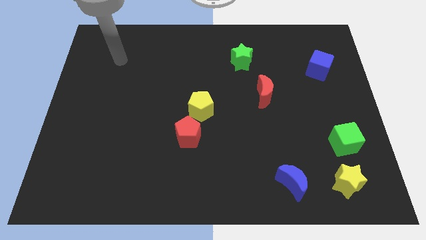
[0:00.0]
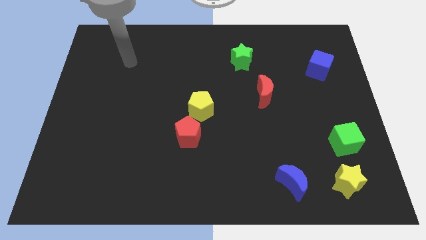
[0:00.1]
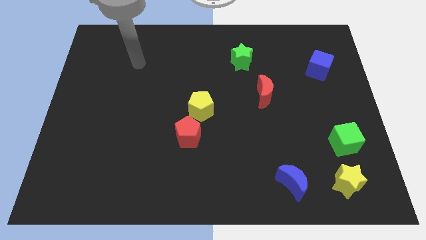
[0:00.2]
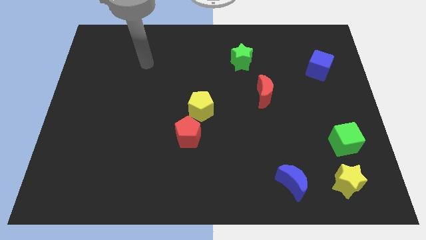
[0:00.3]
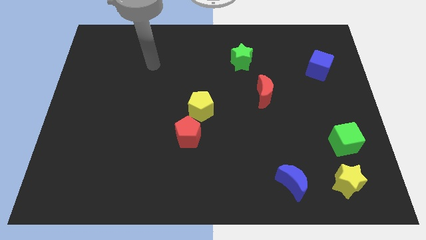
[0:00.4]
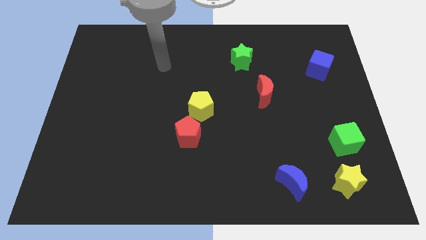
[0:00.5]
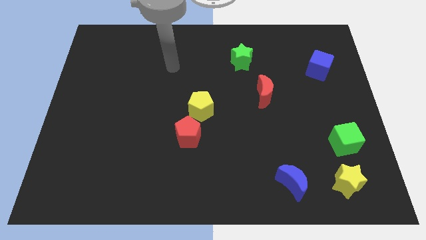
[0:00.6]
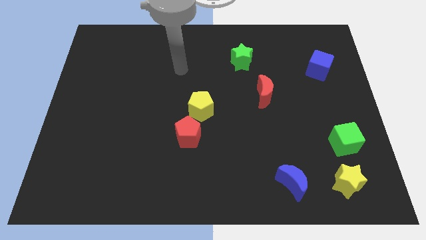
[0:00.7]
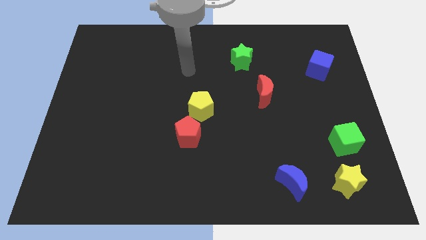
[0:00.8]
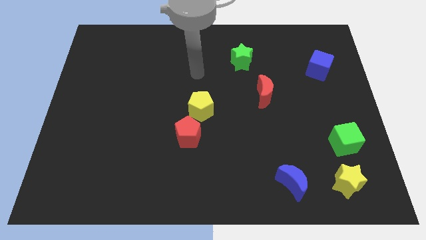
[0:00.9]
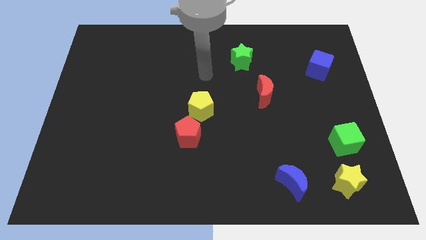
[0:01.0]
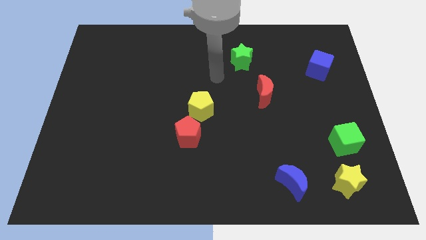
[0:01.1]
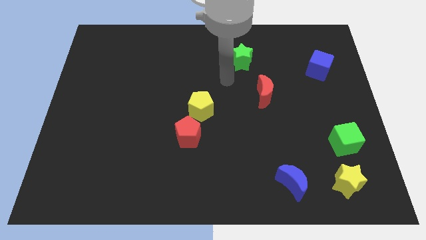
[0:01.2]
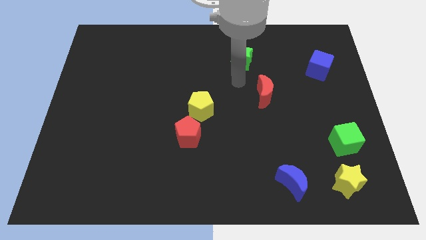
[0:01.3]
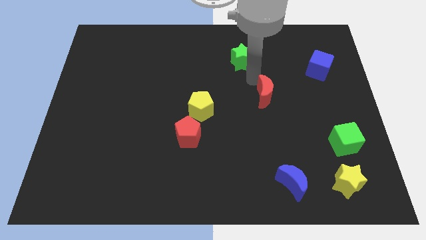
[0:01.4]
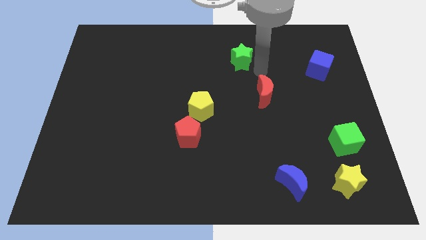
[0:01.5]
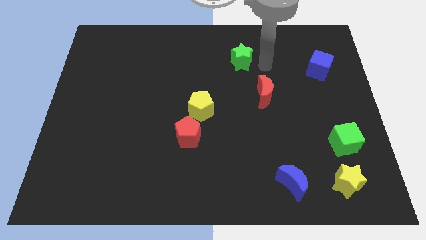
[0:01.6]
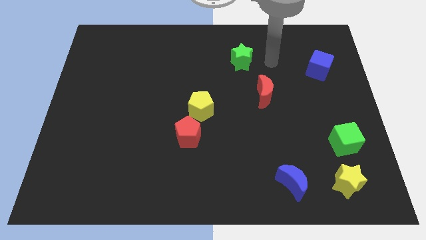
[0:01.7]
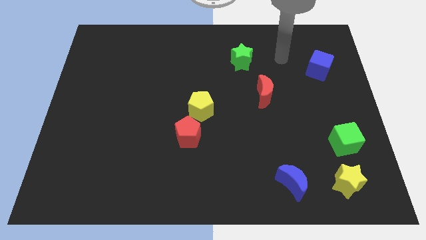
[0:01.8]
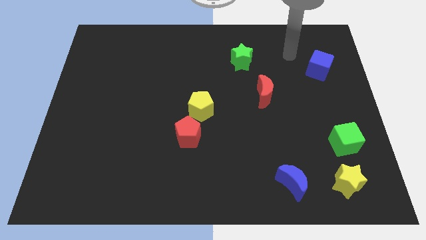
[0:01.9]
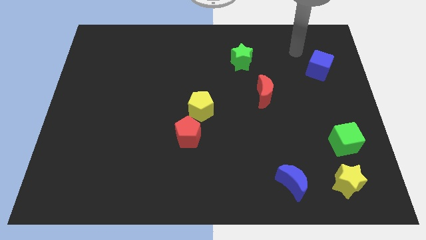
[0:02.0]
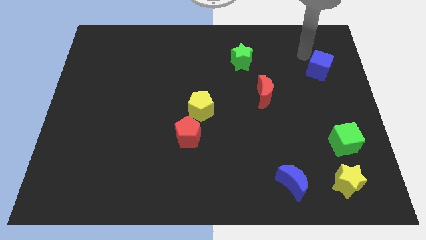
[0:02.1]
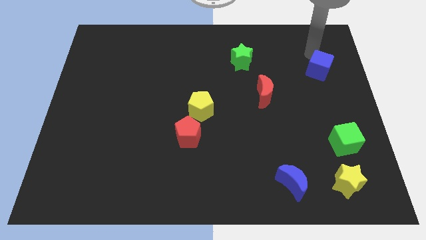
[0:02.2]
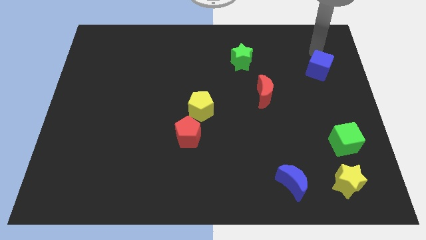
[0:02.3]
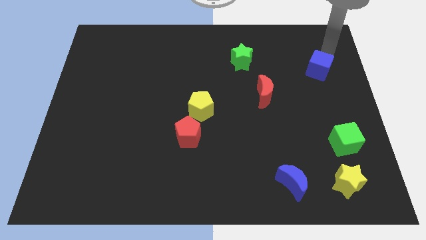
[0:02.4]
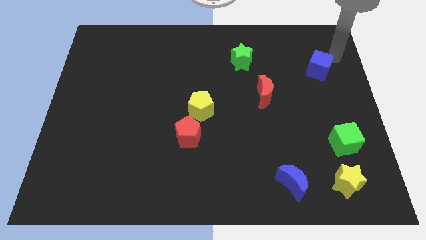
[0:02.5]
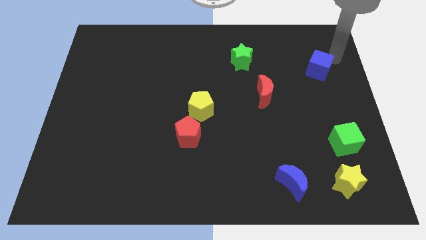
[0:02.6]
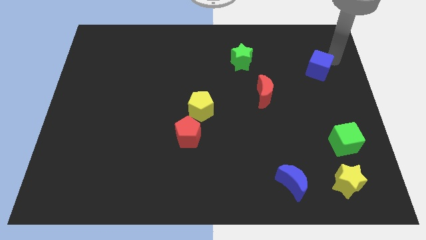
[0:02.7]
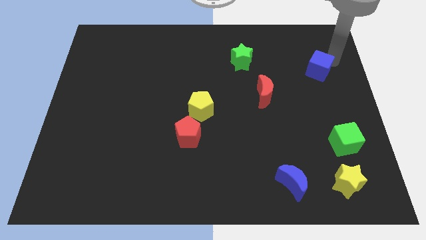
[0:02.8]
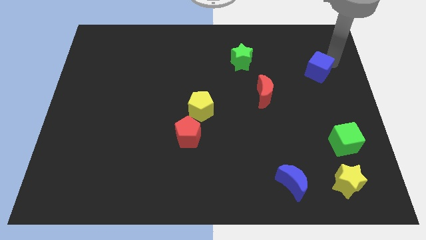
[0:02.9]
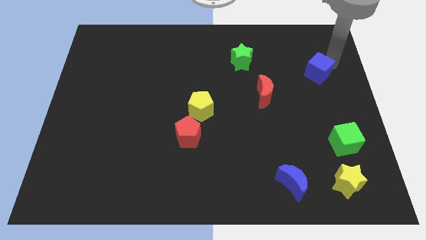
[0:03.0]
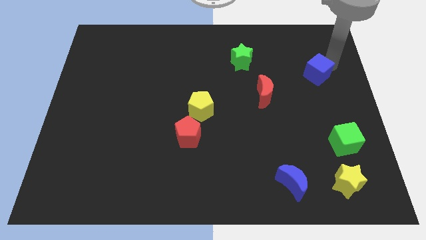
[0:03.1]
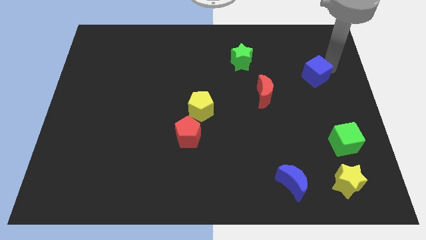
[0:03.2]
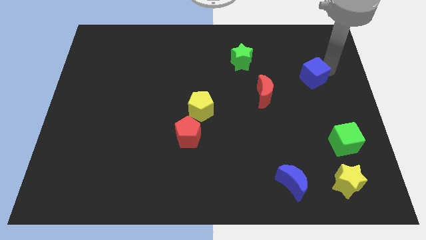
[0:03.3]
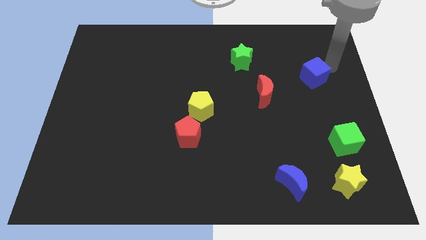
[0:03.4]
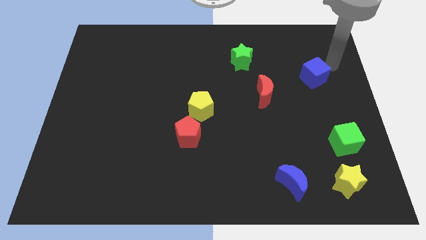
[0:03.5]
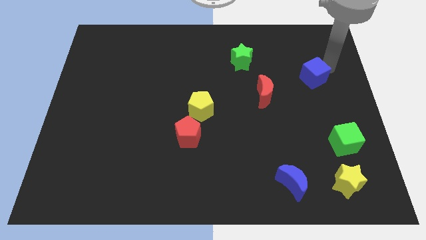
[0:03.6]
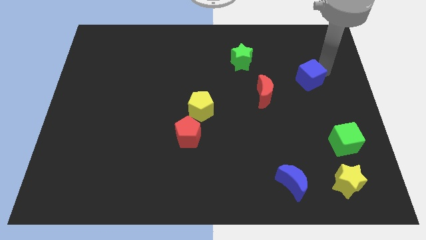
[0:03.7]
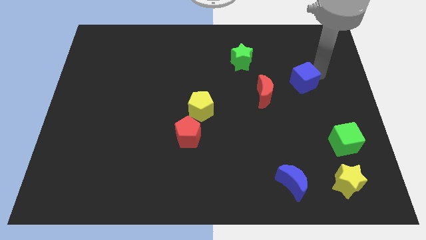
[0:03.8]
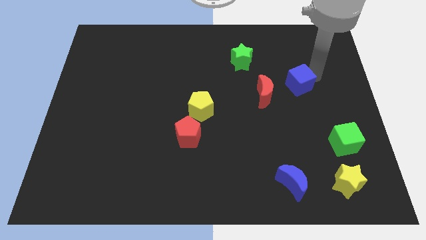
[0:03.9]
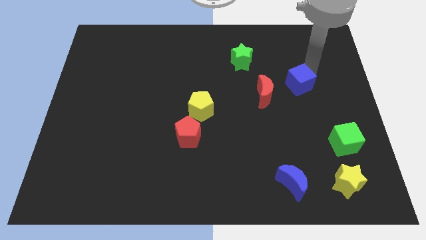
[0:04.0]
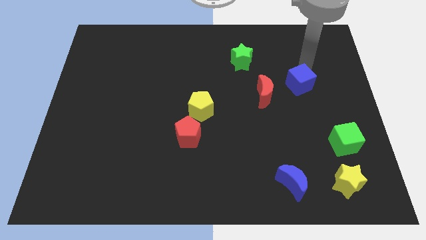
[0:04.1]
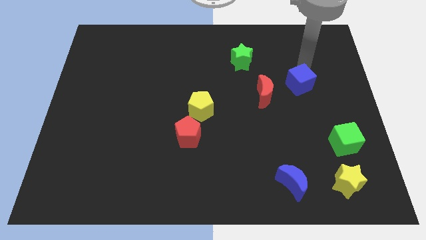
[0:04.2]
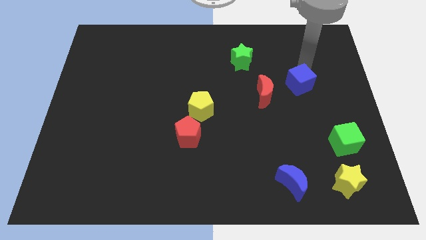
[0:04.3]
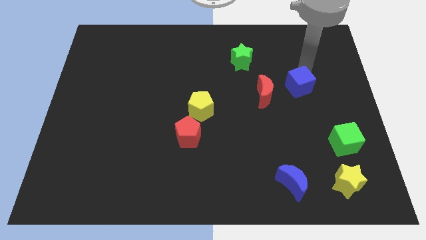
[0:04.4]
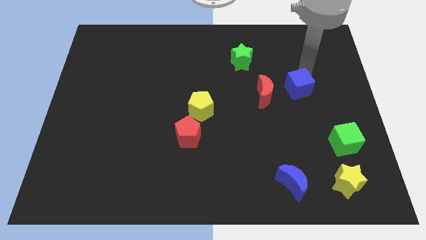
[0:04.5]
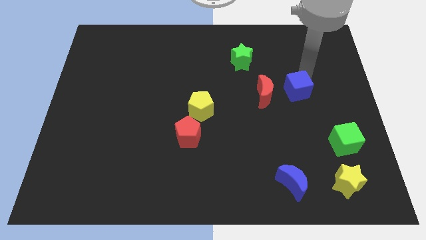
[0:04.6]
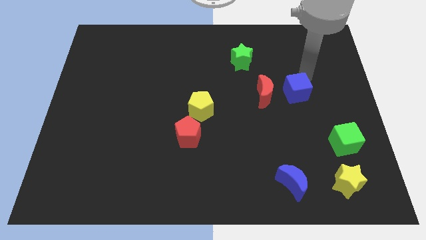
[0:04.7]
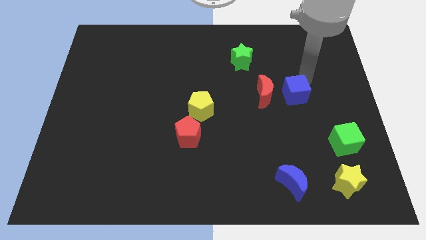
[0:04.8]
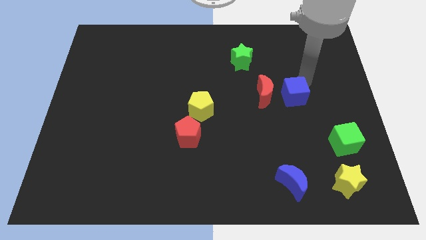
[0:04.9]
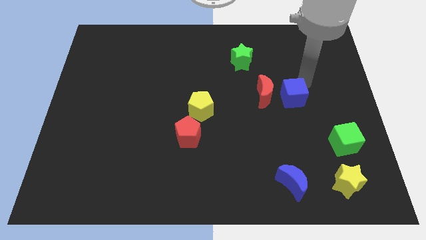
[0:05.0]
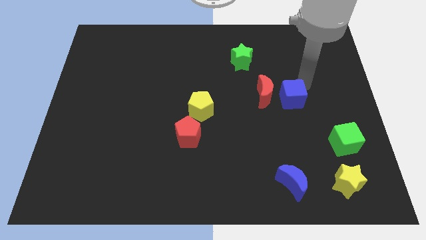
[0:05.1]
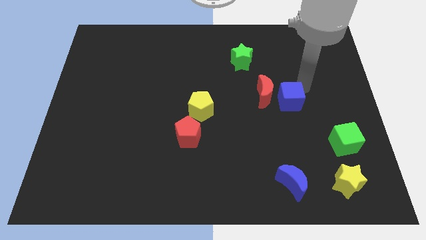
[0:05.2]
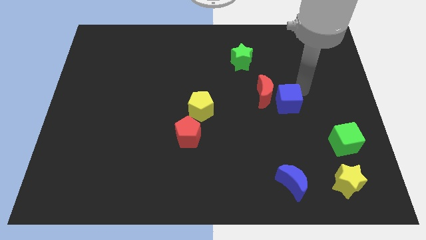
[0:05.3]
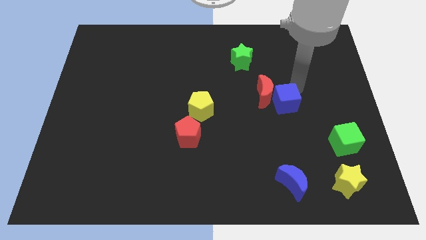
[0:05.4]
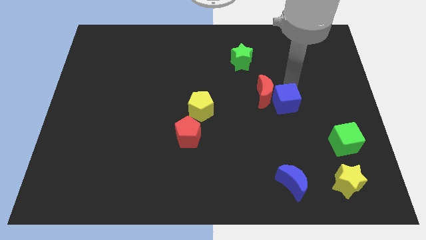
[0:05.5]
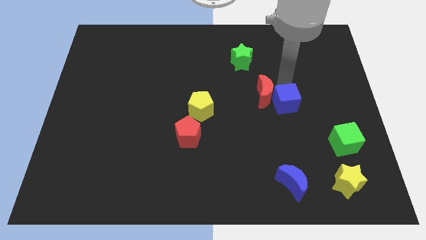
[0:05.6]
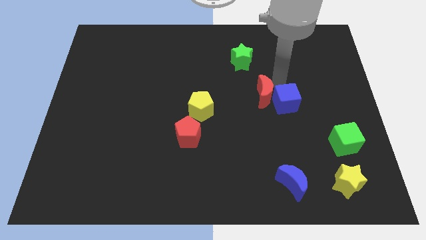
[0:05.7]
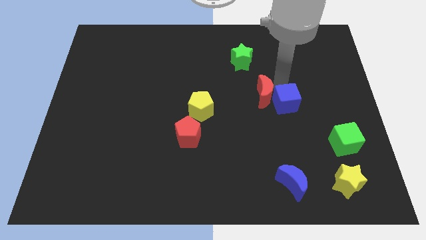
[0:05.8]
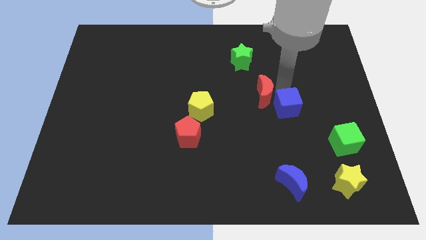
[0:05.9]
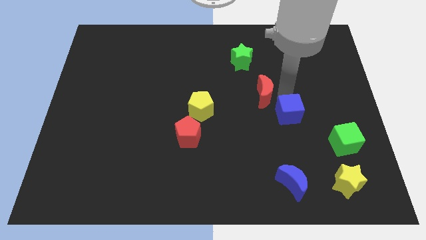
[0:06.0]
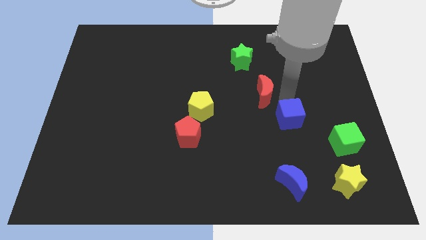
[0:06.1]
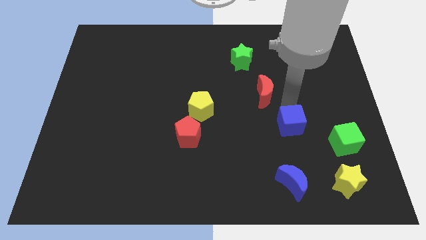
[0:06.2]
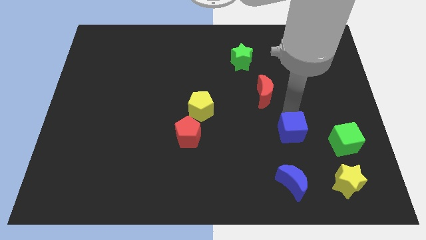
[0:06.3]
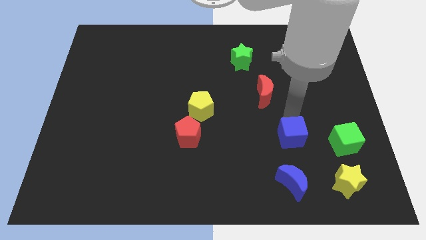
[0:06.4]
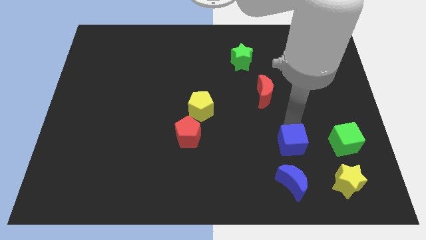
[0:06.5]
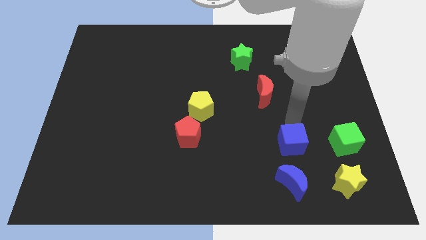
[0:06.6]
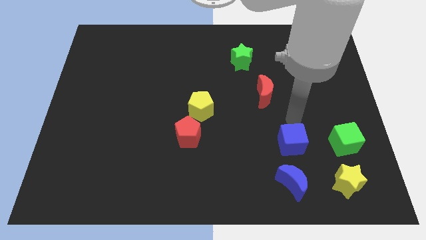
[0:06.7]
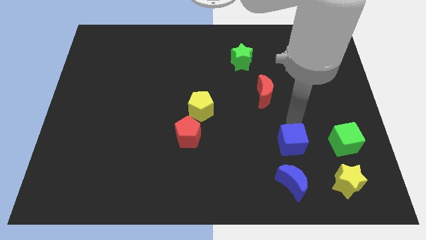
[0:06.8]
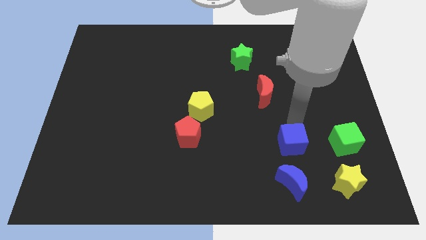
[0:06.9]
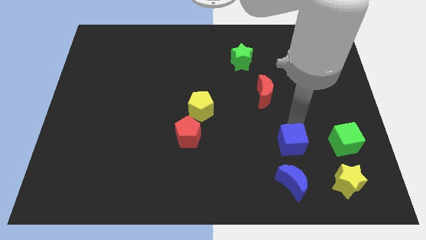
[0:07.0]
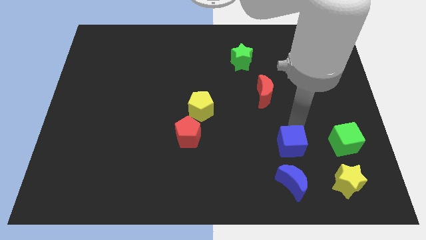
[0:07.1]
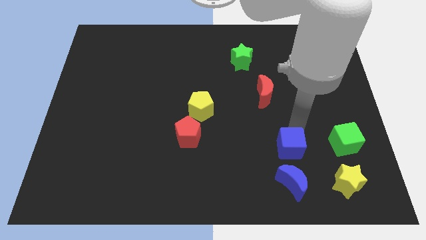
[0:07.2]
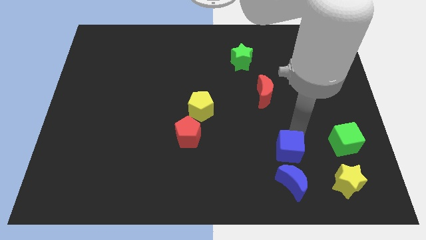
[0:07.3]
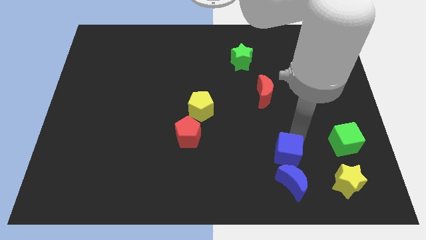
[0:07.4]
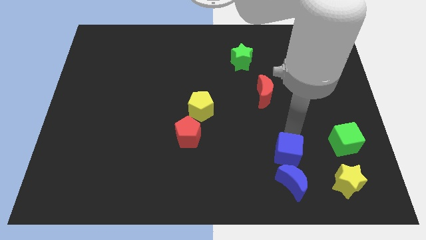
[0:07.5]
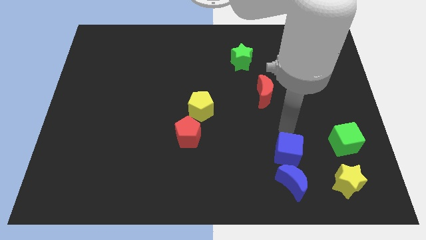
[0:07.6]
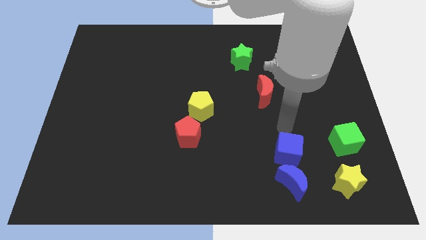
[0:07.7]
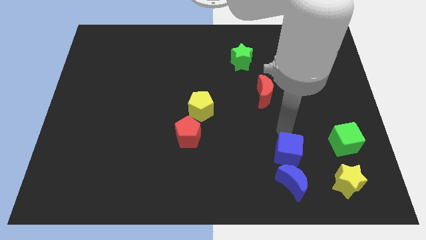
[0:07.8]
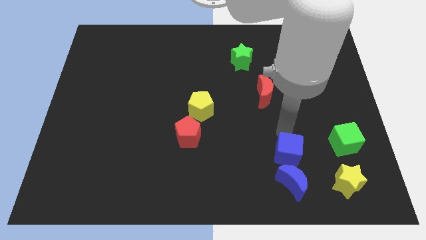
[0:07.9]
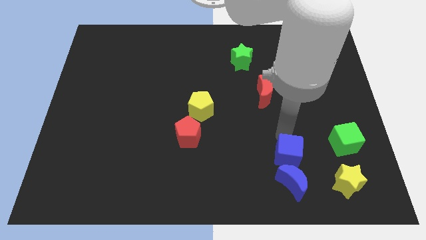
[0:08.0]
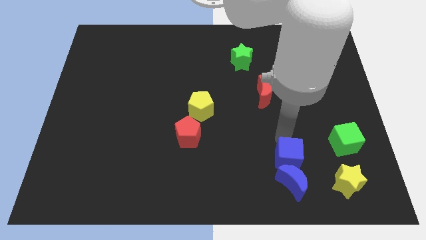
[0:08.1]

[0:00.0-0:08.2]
move the blue cube close to the blue moon
